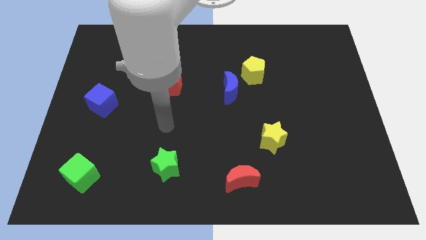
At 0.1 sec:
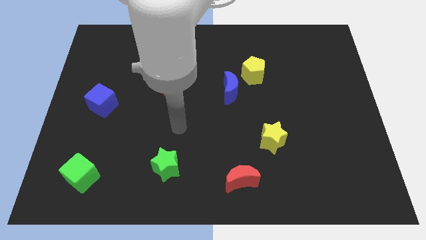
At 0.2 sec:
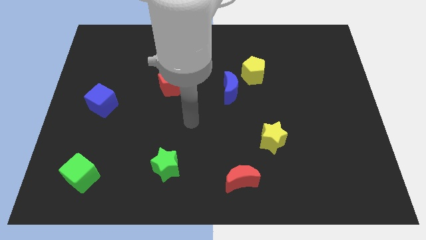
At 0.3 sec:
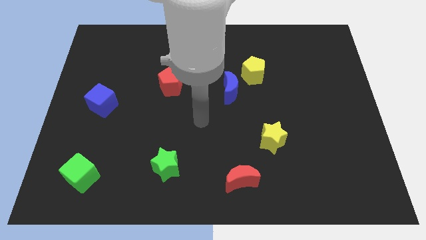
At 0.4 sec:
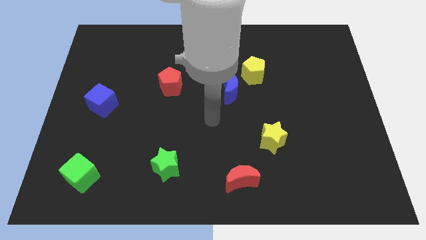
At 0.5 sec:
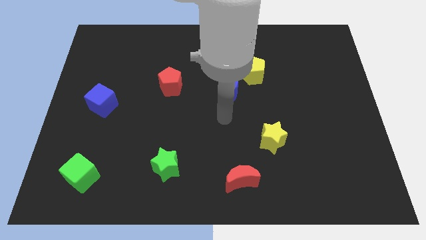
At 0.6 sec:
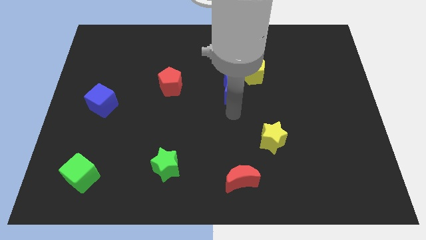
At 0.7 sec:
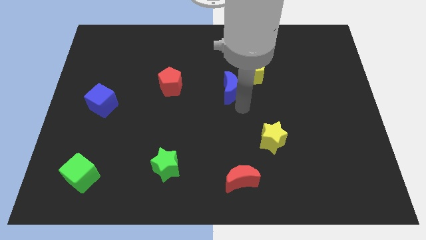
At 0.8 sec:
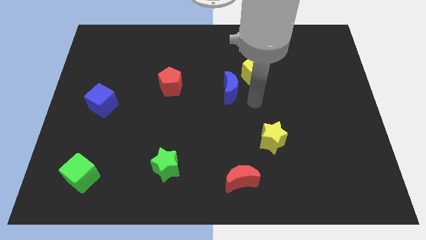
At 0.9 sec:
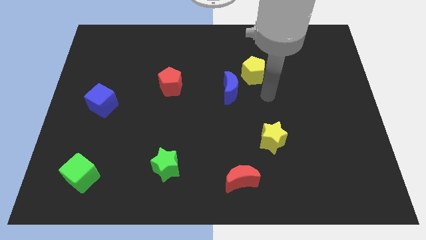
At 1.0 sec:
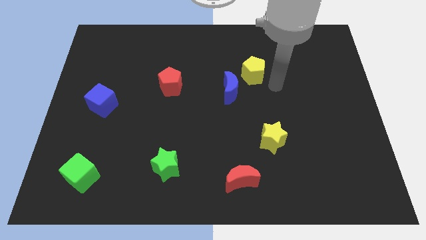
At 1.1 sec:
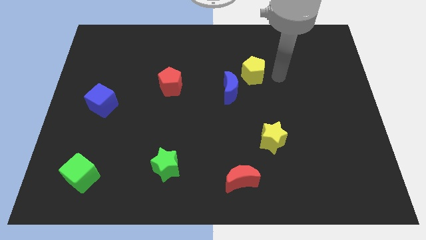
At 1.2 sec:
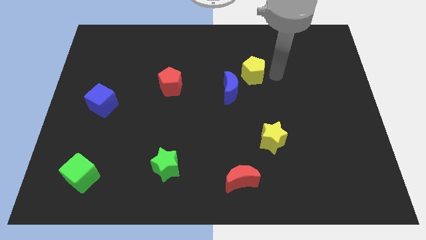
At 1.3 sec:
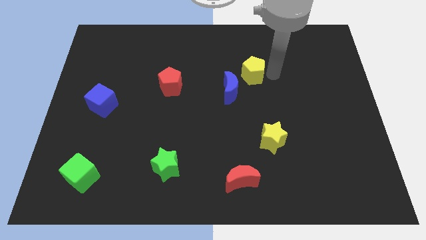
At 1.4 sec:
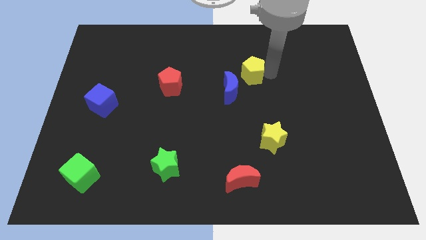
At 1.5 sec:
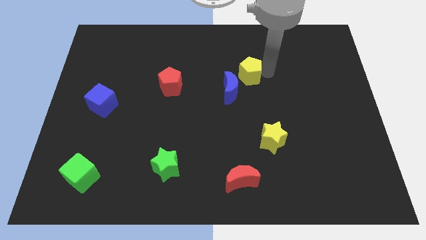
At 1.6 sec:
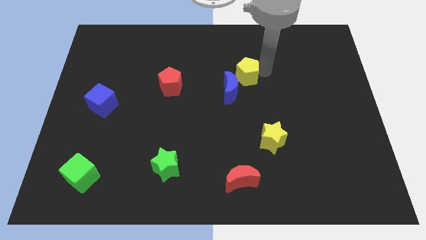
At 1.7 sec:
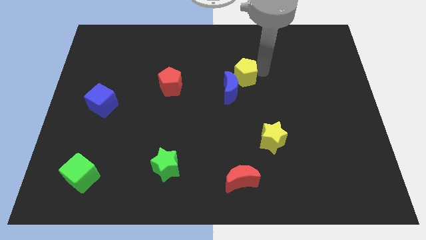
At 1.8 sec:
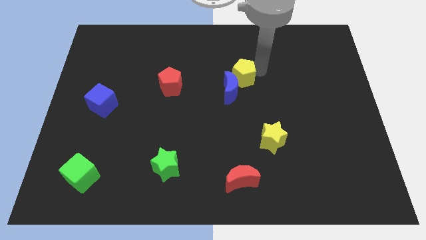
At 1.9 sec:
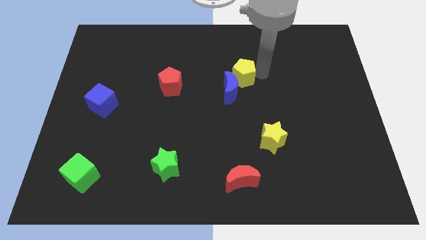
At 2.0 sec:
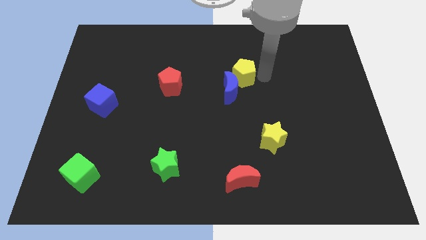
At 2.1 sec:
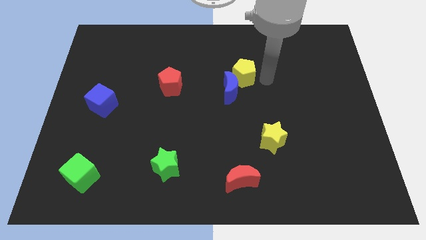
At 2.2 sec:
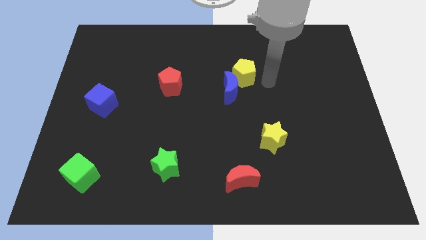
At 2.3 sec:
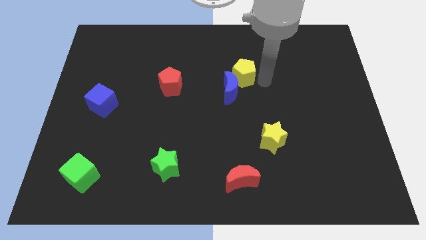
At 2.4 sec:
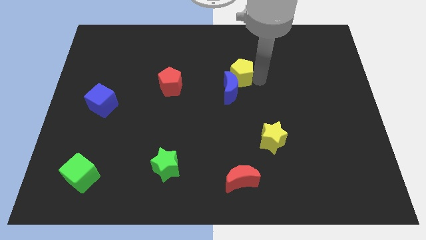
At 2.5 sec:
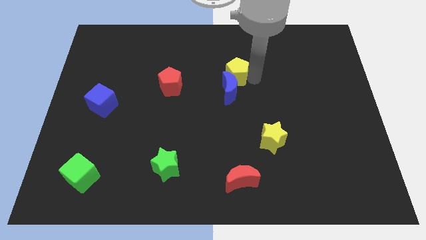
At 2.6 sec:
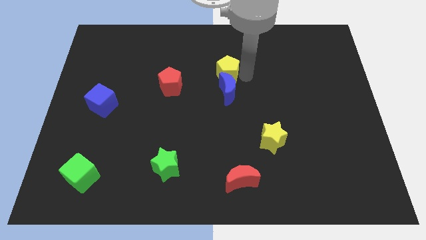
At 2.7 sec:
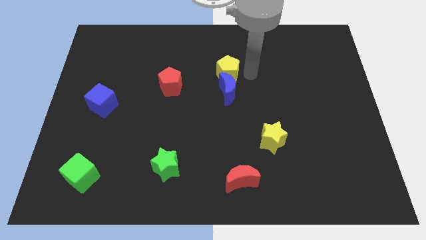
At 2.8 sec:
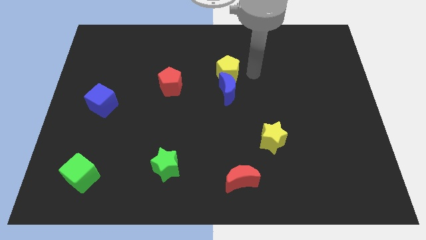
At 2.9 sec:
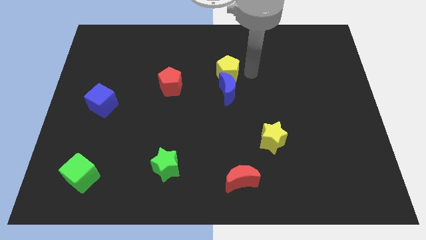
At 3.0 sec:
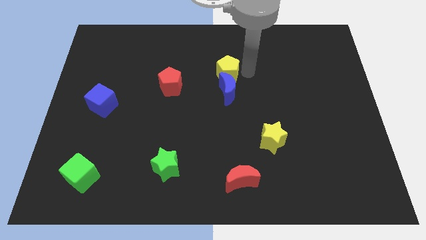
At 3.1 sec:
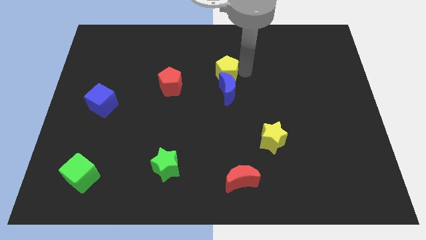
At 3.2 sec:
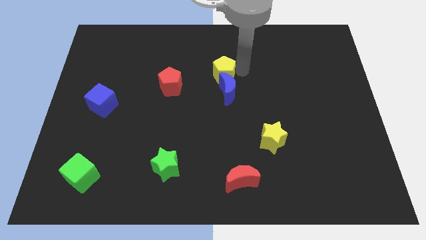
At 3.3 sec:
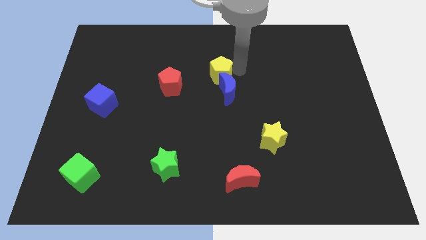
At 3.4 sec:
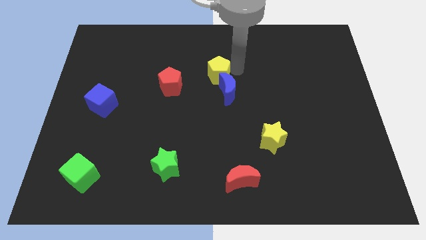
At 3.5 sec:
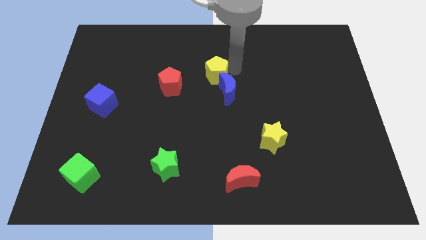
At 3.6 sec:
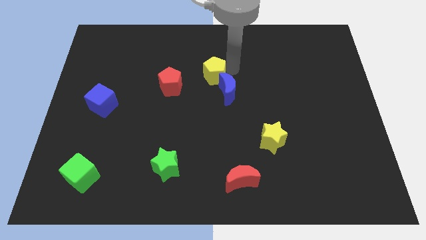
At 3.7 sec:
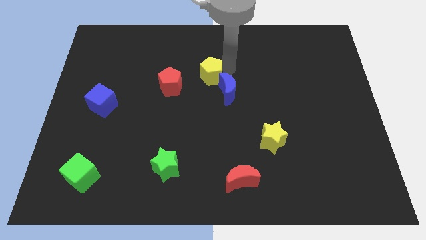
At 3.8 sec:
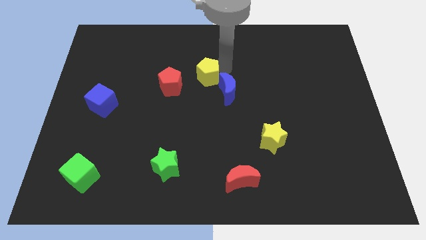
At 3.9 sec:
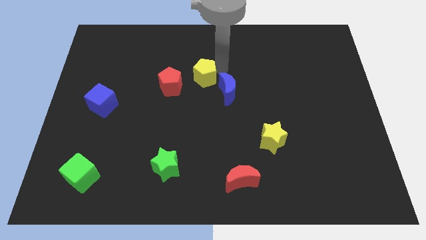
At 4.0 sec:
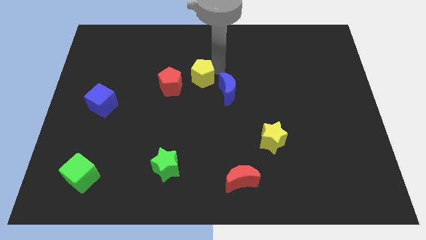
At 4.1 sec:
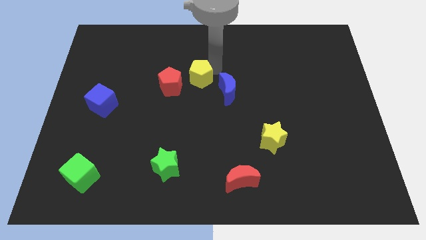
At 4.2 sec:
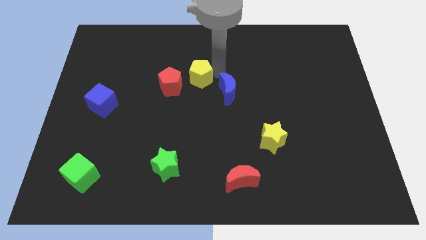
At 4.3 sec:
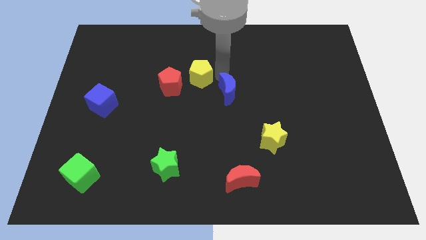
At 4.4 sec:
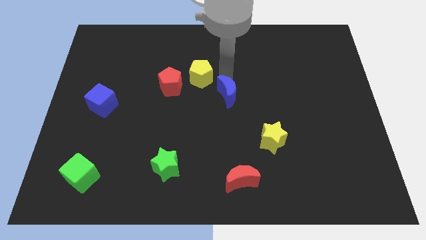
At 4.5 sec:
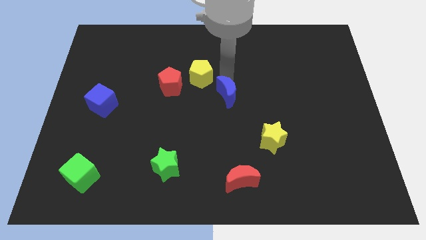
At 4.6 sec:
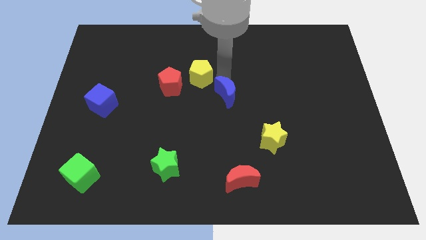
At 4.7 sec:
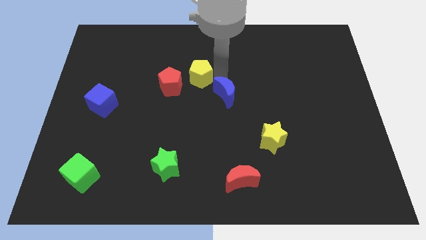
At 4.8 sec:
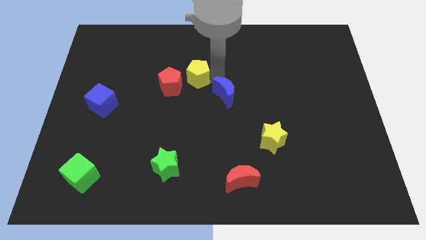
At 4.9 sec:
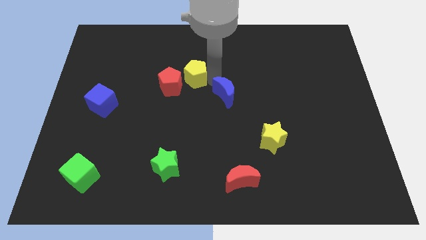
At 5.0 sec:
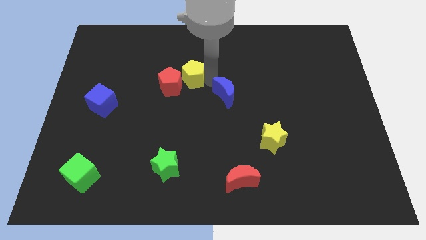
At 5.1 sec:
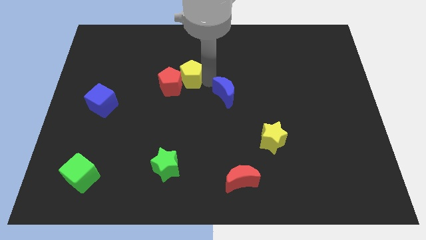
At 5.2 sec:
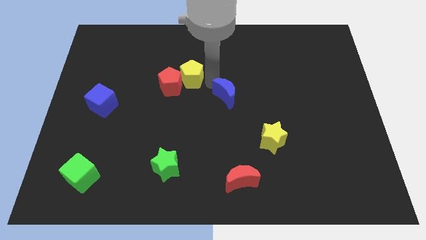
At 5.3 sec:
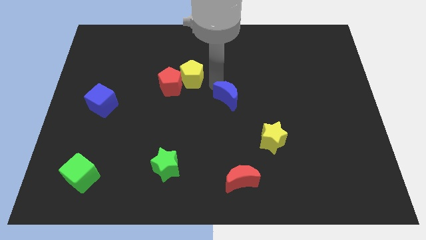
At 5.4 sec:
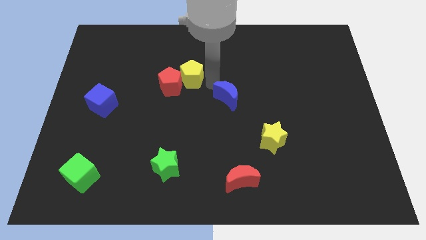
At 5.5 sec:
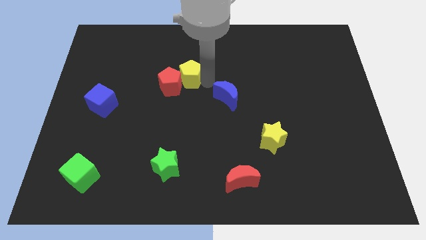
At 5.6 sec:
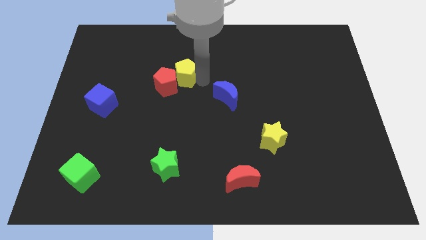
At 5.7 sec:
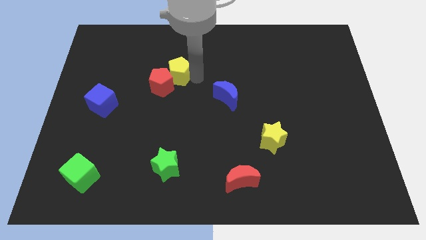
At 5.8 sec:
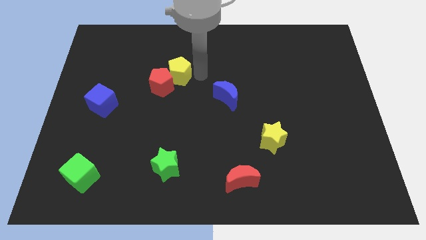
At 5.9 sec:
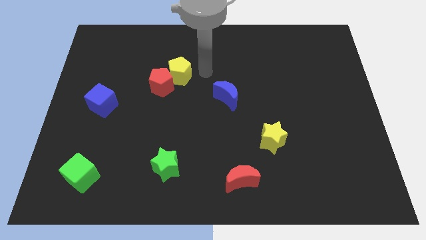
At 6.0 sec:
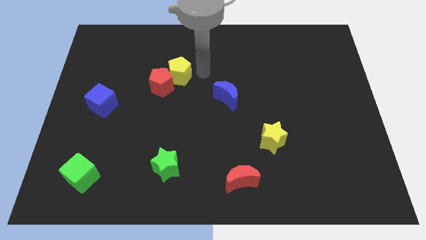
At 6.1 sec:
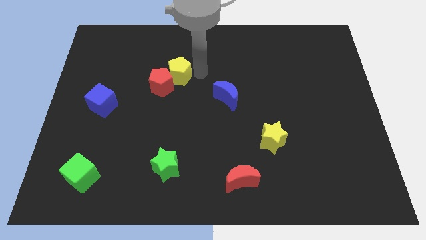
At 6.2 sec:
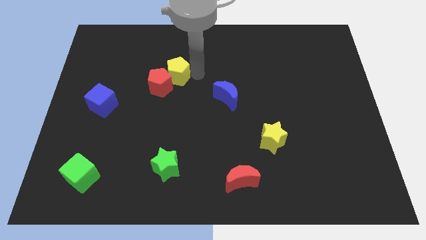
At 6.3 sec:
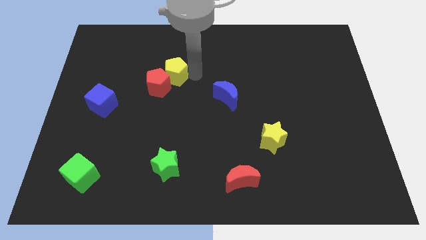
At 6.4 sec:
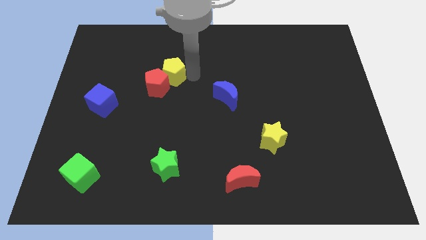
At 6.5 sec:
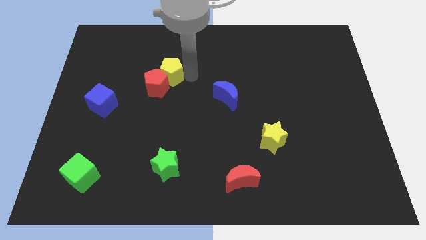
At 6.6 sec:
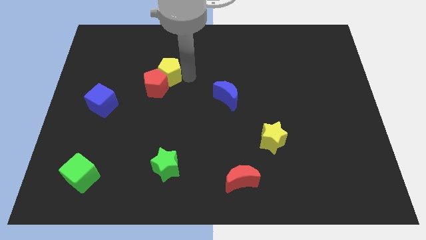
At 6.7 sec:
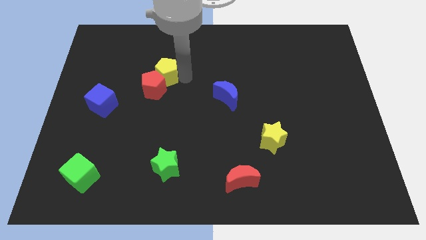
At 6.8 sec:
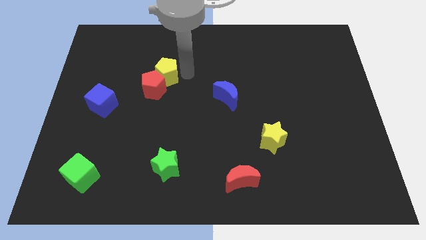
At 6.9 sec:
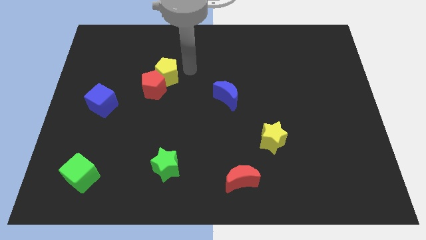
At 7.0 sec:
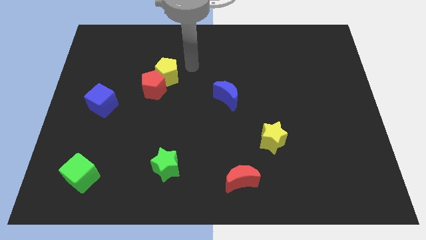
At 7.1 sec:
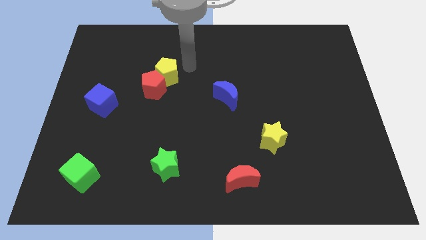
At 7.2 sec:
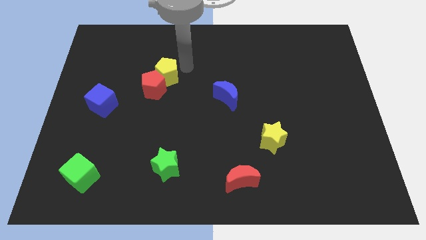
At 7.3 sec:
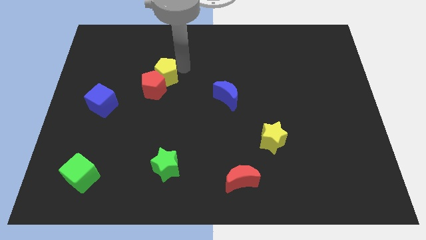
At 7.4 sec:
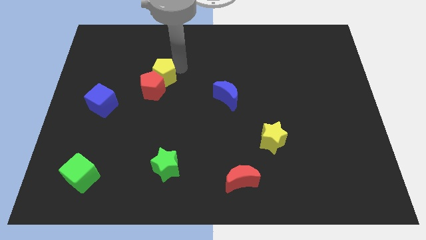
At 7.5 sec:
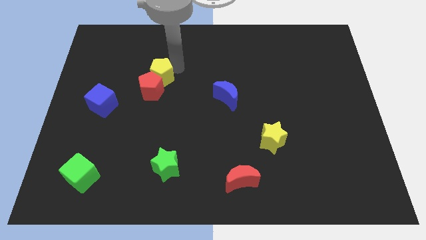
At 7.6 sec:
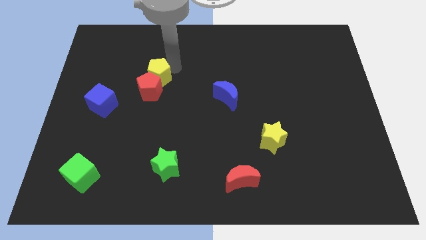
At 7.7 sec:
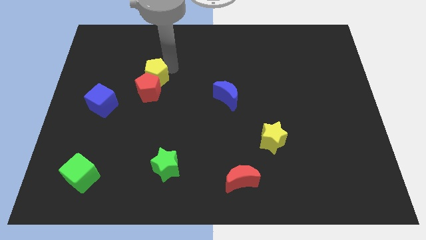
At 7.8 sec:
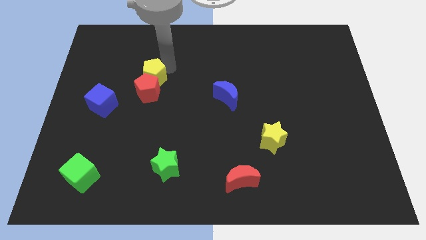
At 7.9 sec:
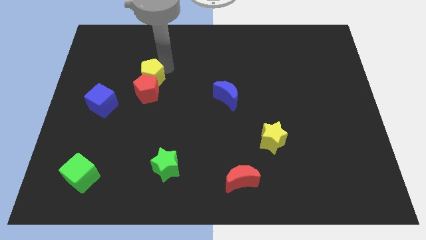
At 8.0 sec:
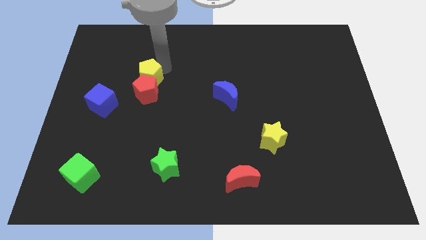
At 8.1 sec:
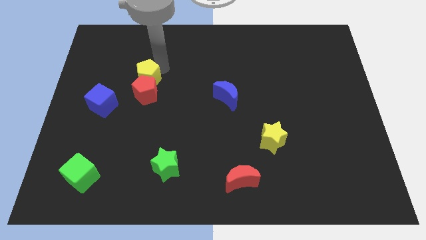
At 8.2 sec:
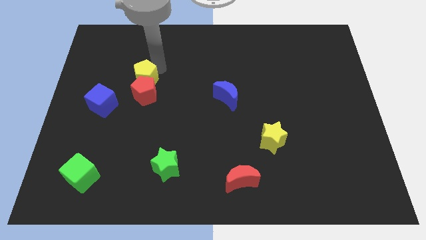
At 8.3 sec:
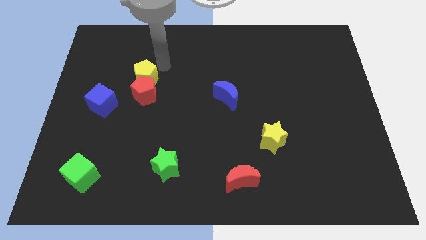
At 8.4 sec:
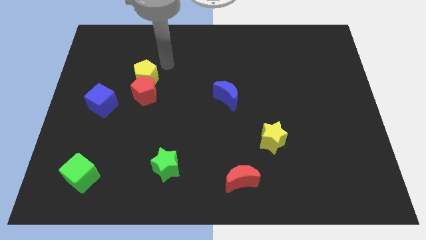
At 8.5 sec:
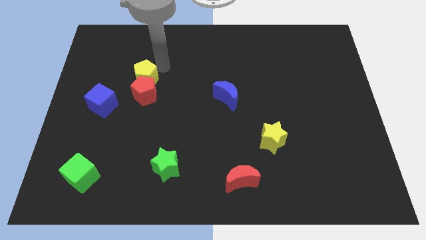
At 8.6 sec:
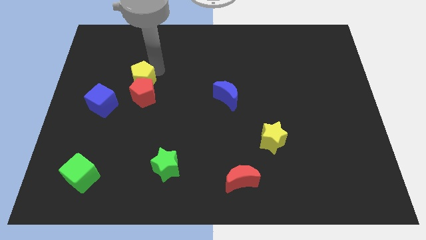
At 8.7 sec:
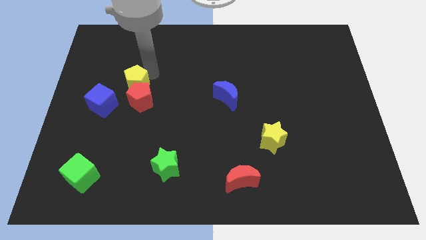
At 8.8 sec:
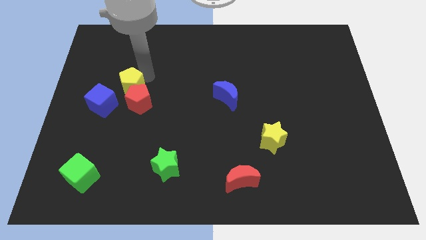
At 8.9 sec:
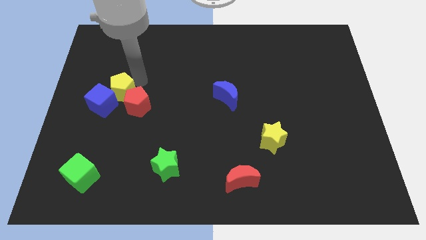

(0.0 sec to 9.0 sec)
put the yellow pentagon towards the blue cube
